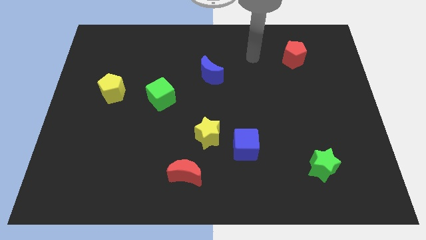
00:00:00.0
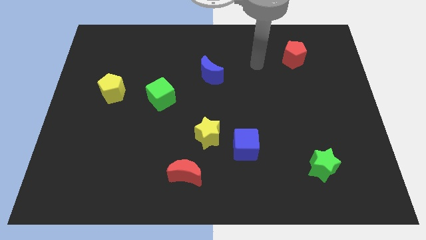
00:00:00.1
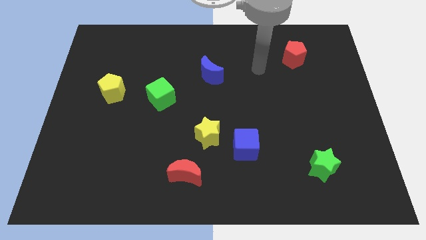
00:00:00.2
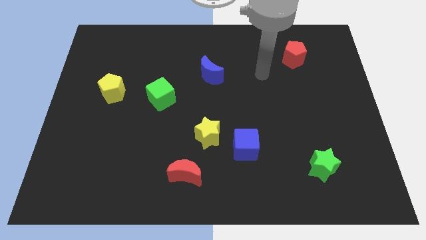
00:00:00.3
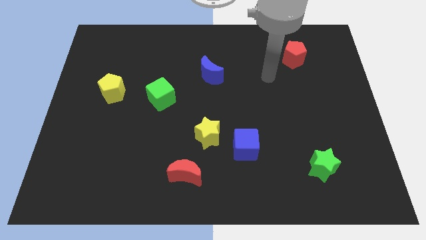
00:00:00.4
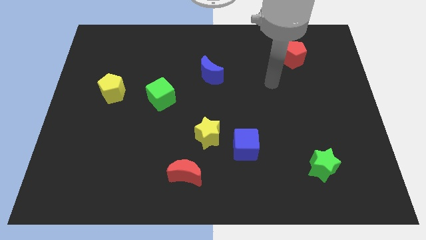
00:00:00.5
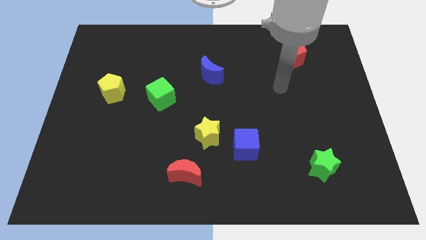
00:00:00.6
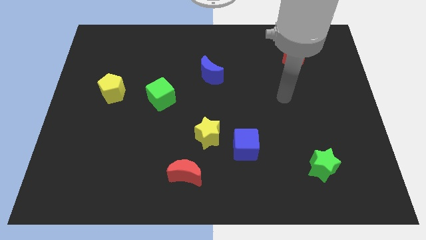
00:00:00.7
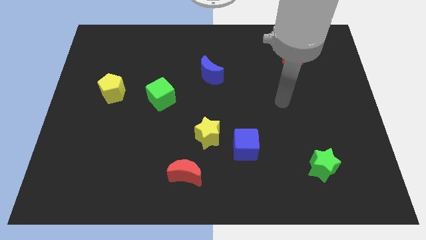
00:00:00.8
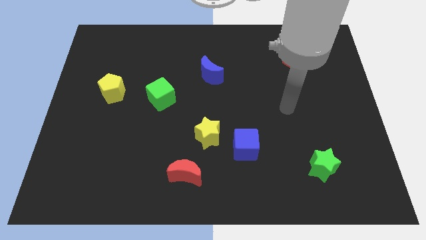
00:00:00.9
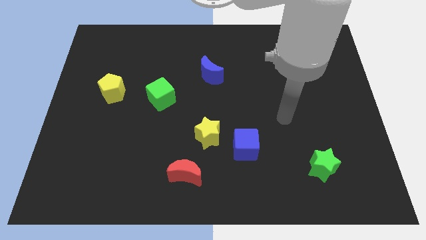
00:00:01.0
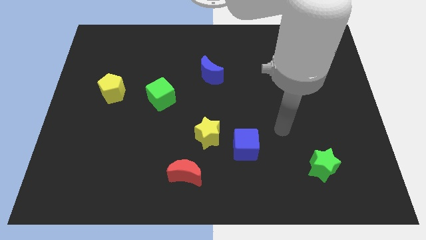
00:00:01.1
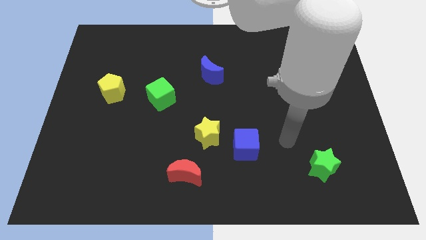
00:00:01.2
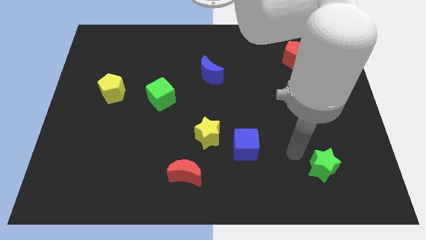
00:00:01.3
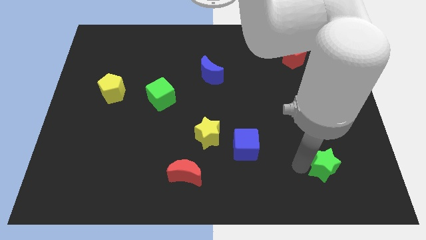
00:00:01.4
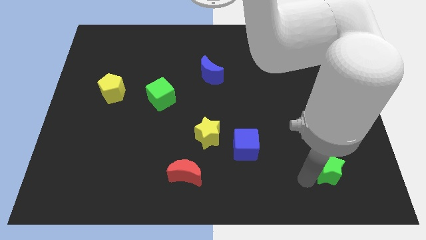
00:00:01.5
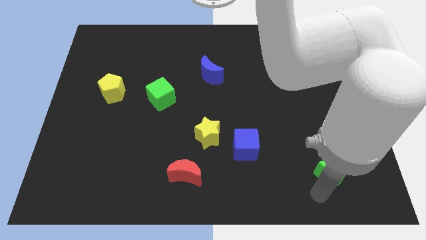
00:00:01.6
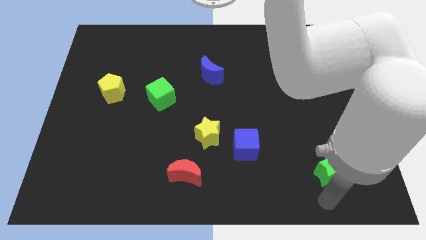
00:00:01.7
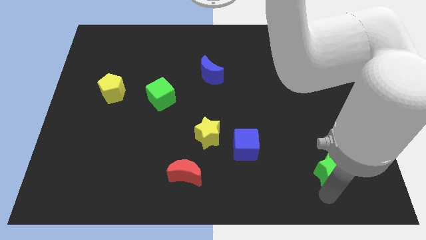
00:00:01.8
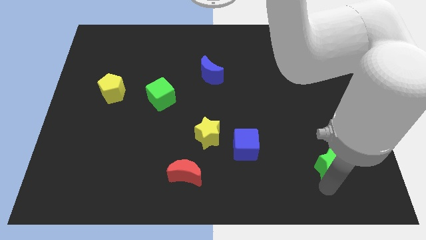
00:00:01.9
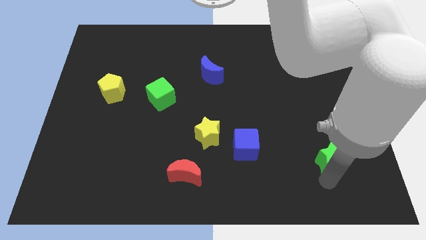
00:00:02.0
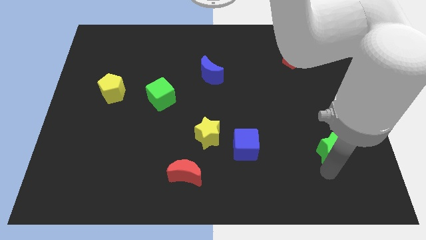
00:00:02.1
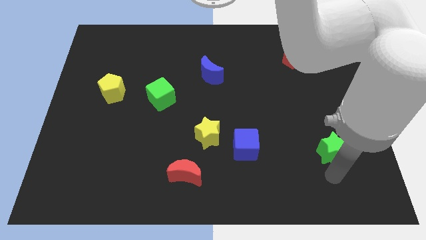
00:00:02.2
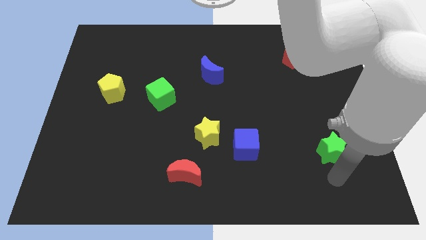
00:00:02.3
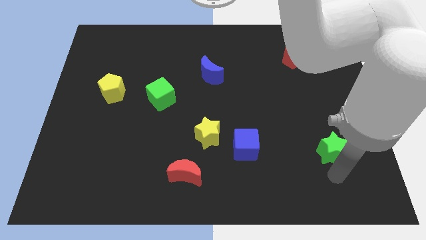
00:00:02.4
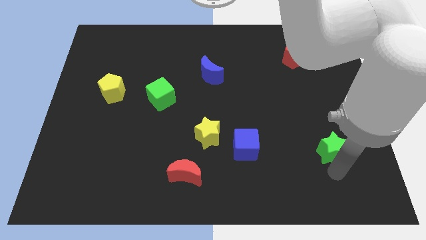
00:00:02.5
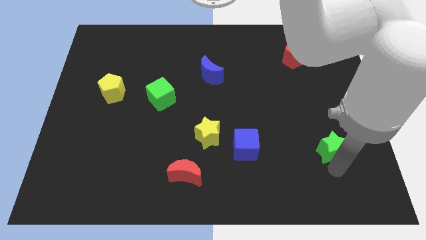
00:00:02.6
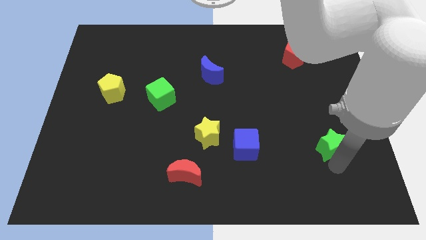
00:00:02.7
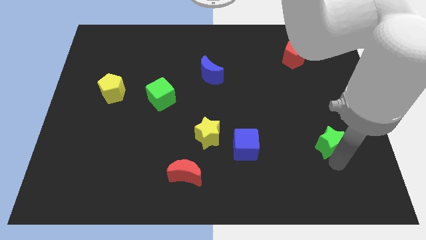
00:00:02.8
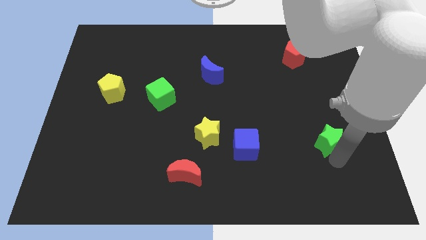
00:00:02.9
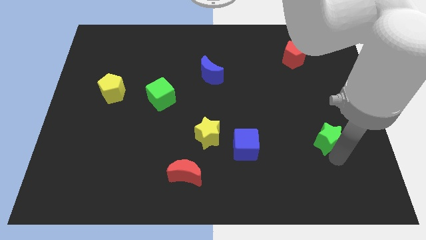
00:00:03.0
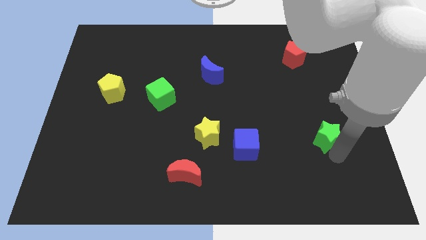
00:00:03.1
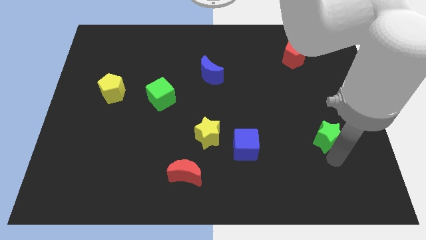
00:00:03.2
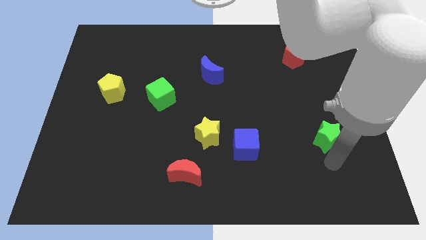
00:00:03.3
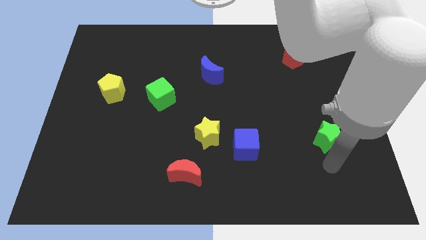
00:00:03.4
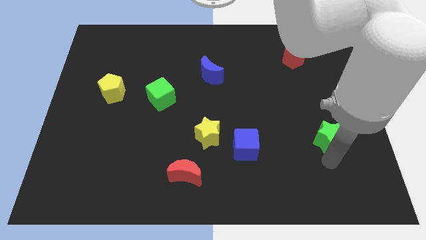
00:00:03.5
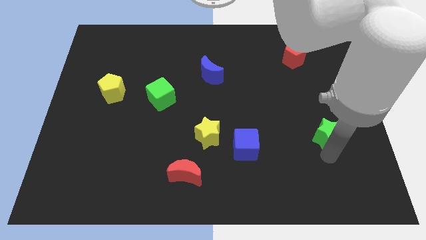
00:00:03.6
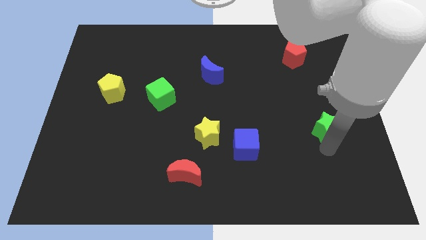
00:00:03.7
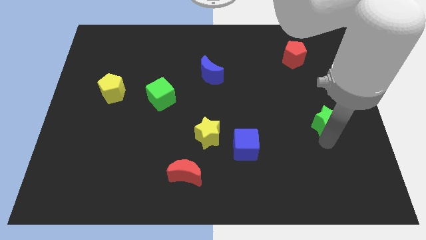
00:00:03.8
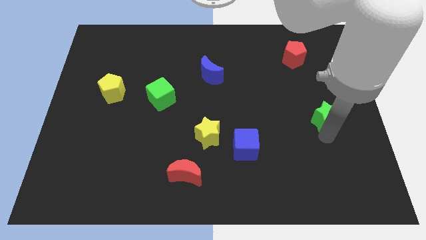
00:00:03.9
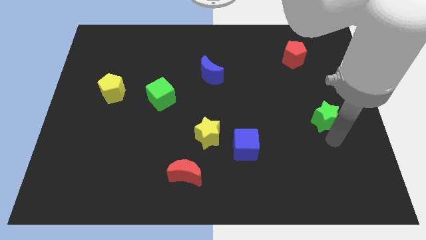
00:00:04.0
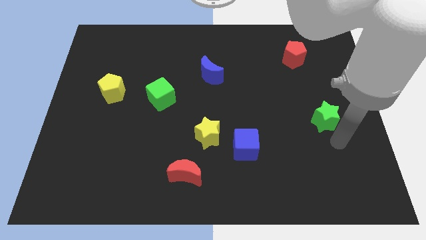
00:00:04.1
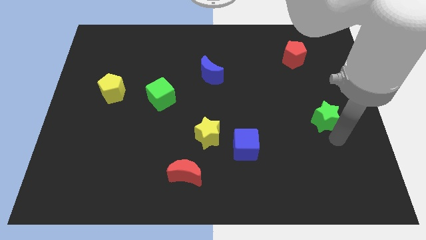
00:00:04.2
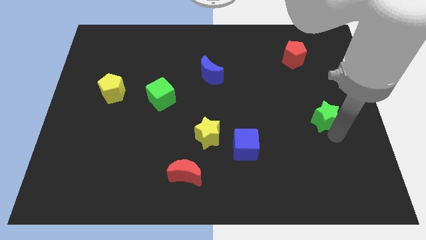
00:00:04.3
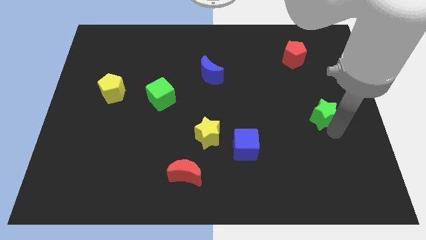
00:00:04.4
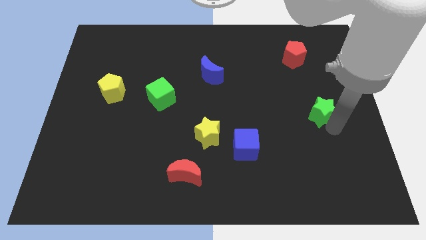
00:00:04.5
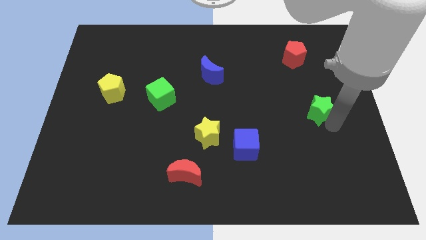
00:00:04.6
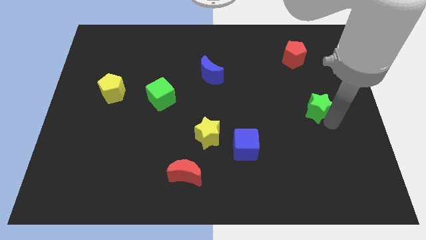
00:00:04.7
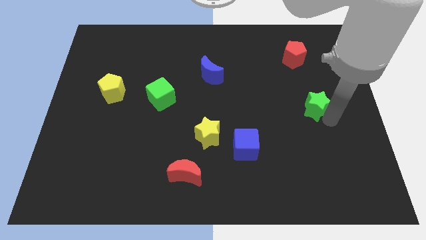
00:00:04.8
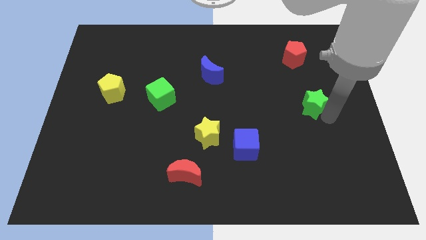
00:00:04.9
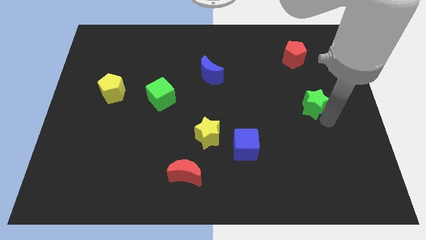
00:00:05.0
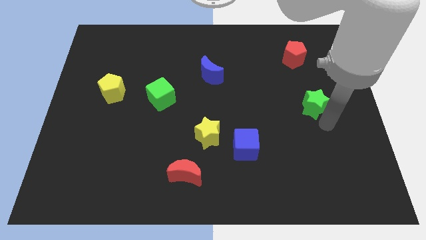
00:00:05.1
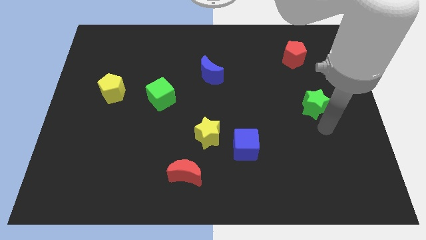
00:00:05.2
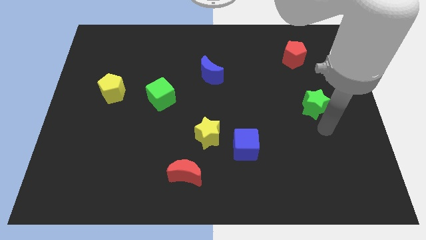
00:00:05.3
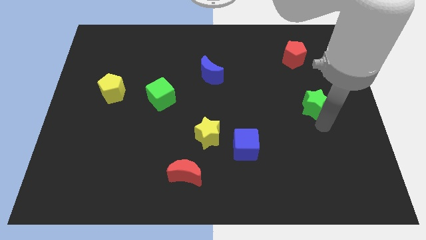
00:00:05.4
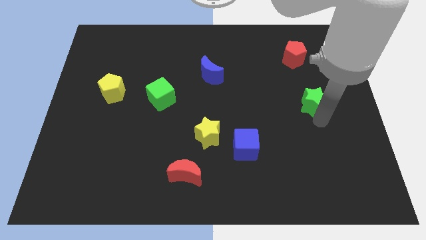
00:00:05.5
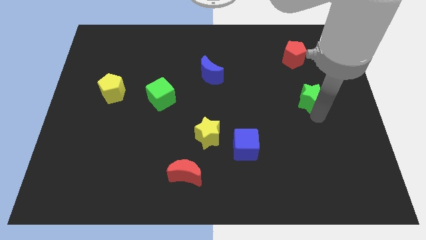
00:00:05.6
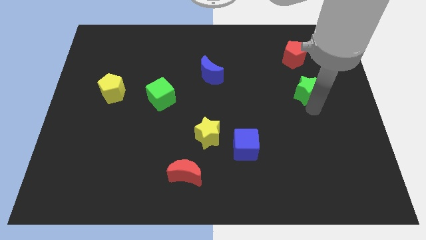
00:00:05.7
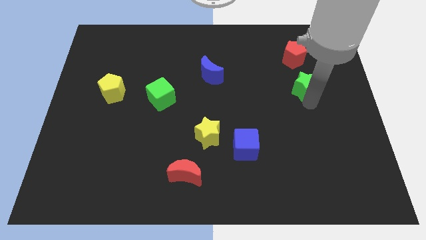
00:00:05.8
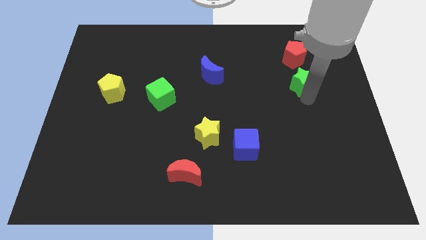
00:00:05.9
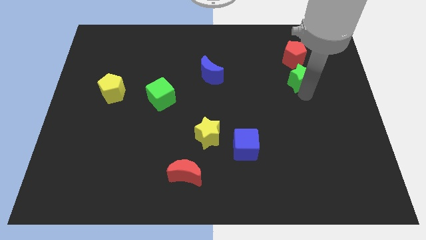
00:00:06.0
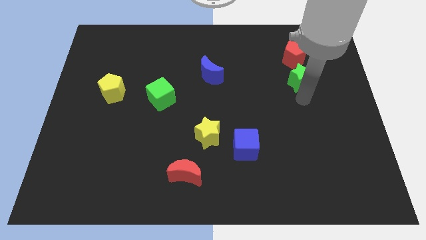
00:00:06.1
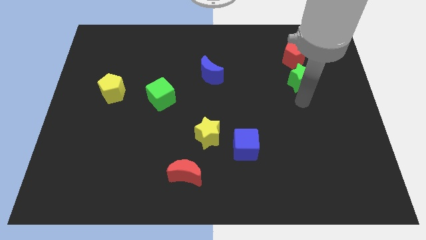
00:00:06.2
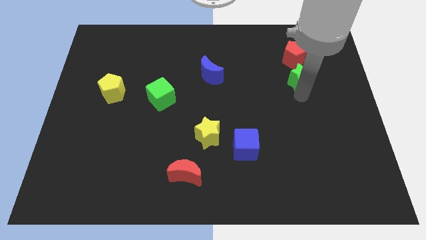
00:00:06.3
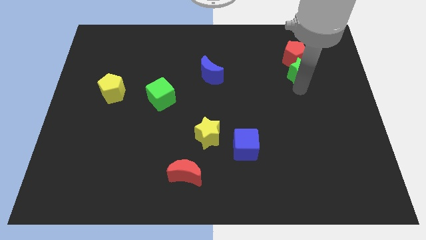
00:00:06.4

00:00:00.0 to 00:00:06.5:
push the green star to the red pentagon

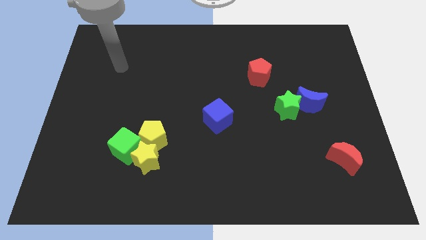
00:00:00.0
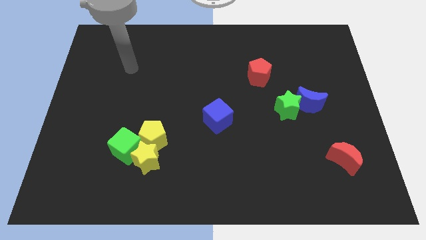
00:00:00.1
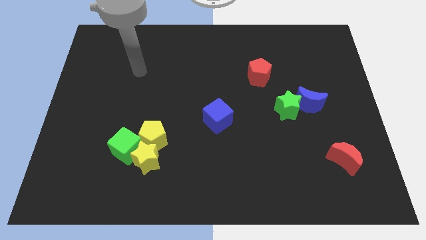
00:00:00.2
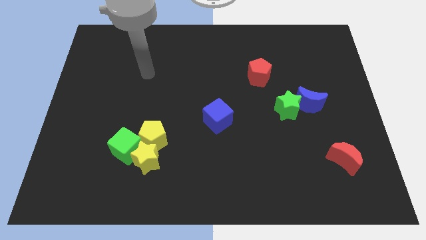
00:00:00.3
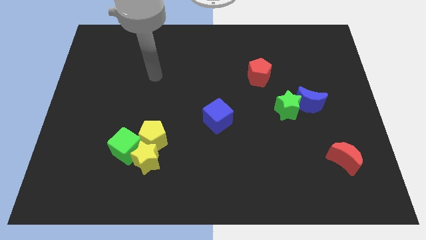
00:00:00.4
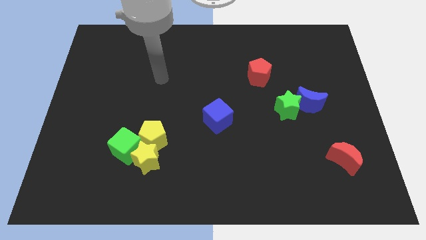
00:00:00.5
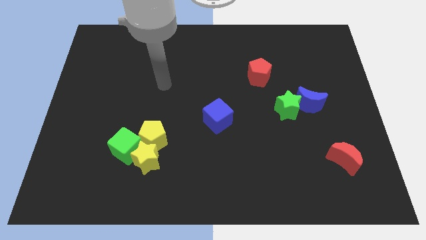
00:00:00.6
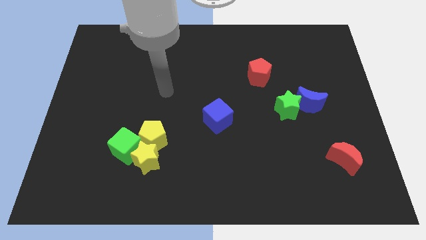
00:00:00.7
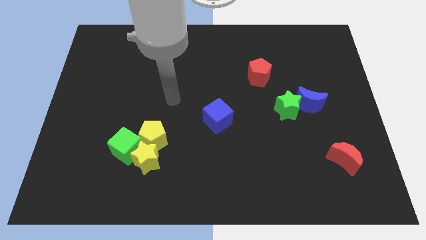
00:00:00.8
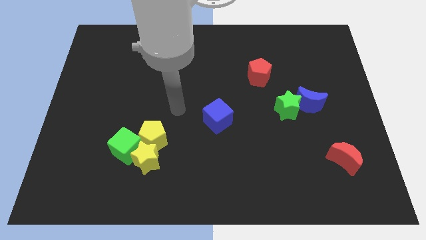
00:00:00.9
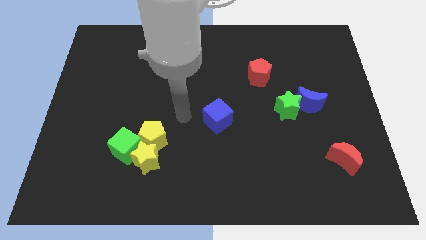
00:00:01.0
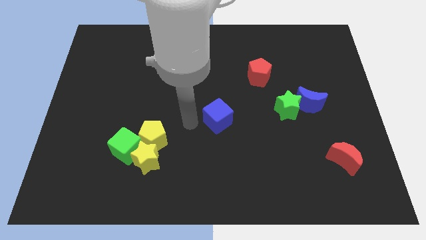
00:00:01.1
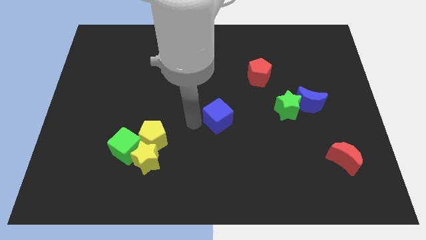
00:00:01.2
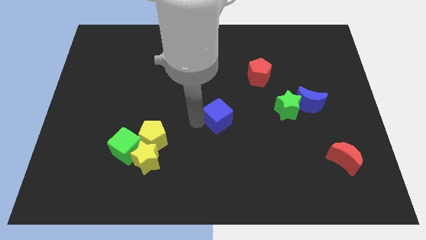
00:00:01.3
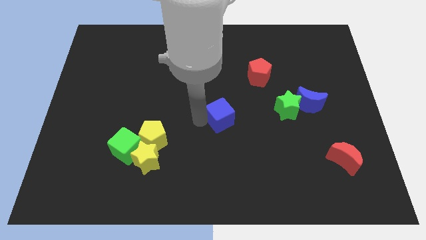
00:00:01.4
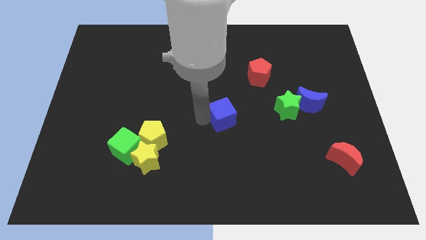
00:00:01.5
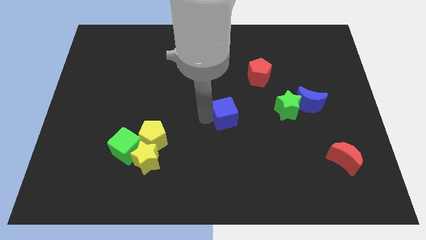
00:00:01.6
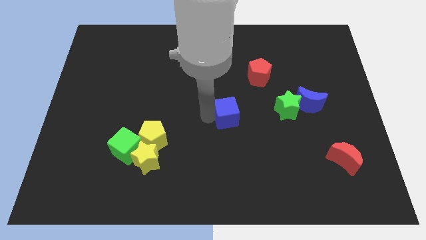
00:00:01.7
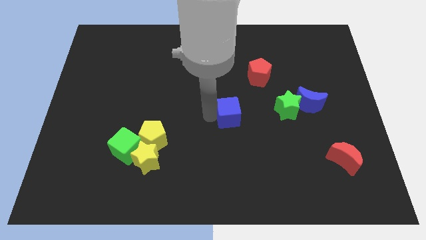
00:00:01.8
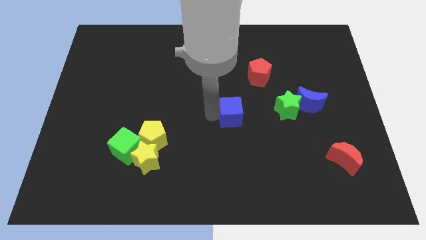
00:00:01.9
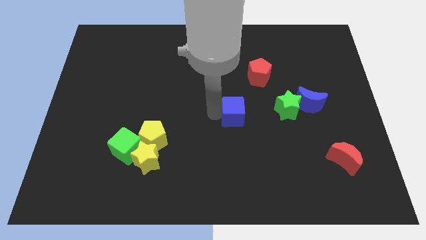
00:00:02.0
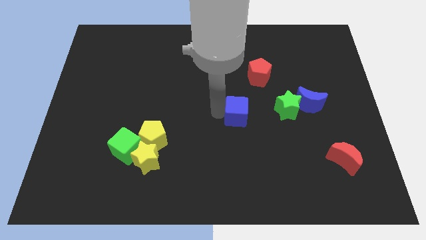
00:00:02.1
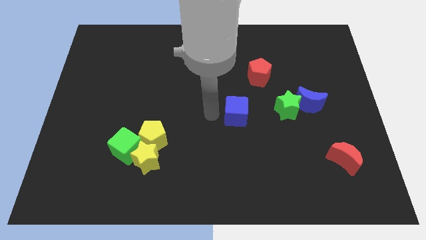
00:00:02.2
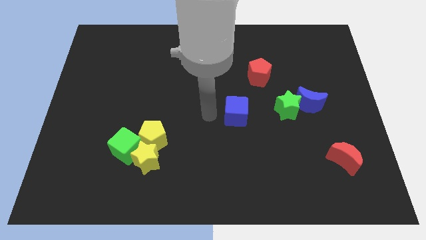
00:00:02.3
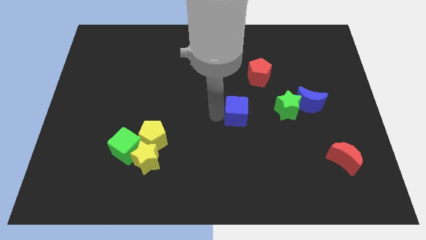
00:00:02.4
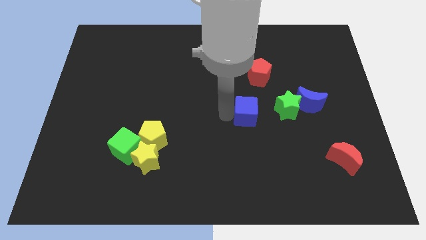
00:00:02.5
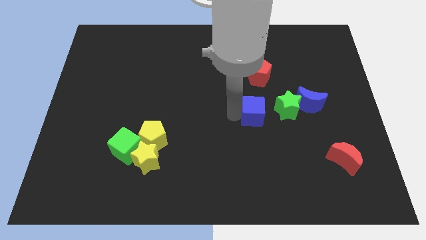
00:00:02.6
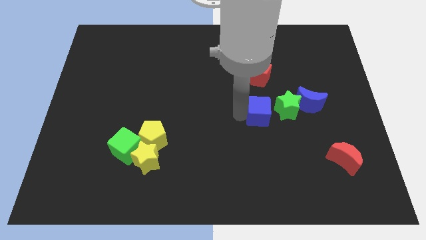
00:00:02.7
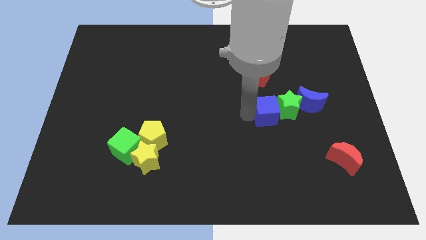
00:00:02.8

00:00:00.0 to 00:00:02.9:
slide the blue cube to the green star
